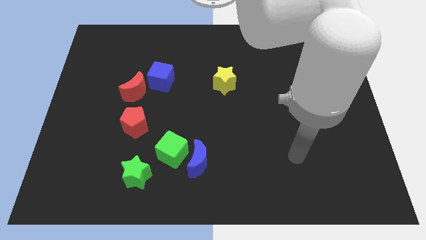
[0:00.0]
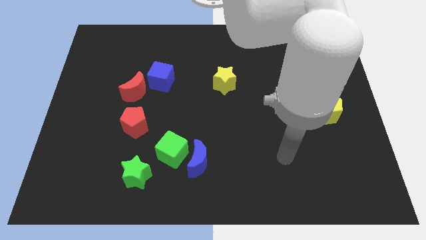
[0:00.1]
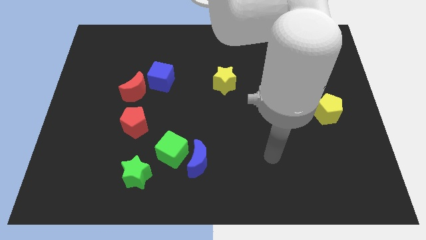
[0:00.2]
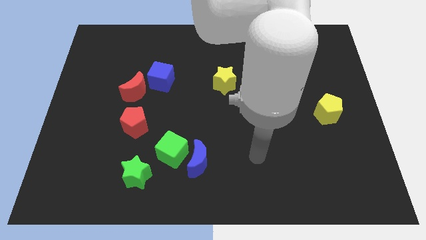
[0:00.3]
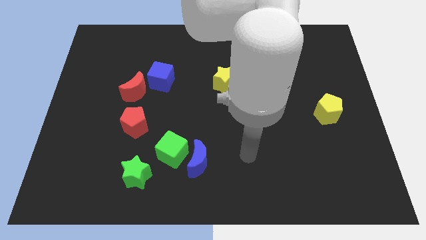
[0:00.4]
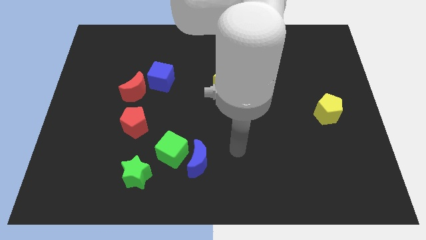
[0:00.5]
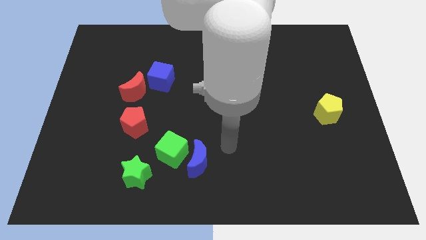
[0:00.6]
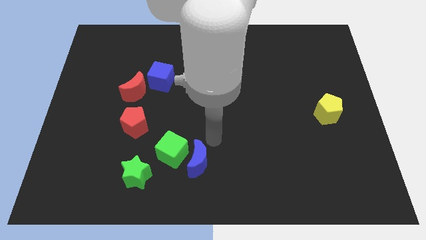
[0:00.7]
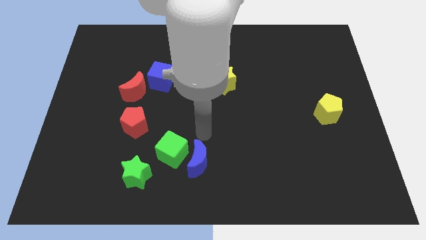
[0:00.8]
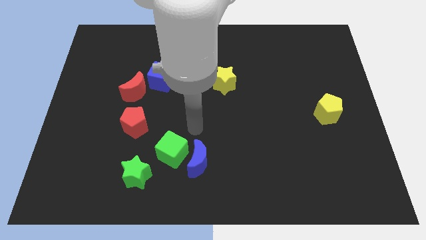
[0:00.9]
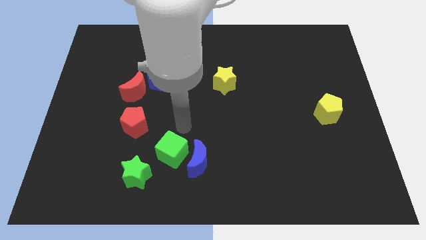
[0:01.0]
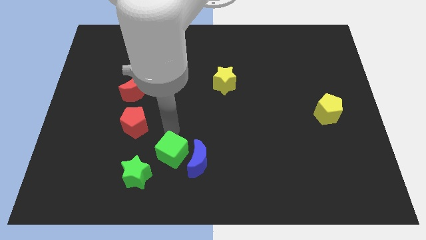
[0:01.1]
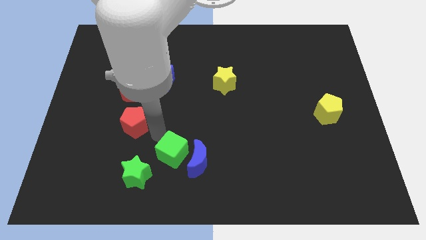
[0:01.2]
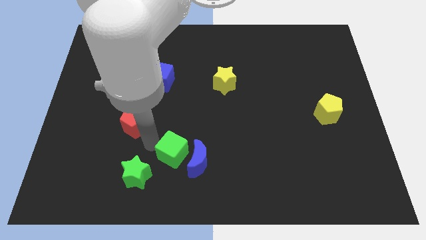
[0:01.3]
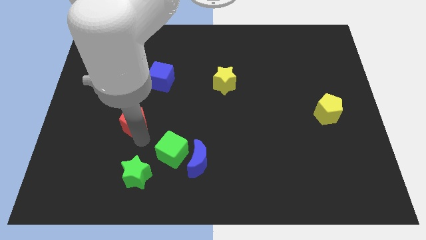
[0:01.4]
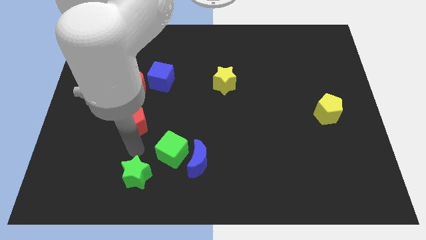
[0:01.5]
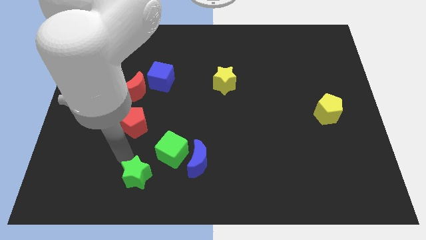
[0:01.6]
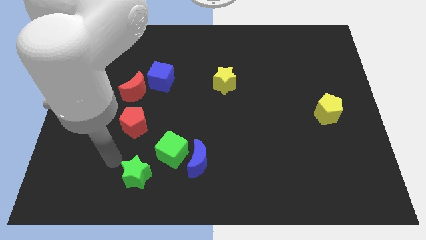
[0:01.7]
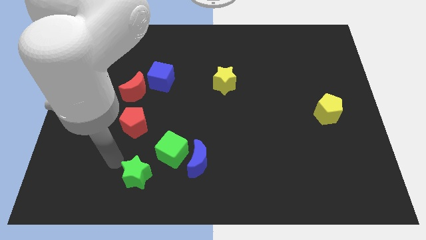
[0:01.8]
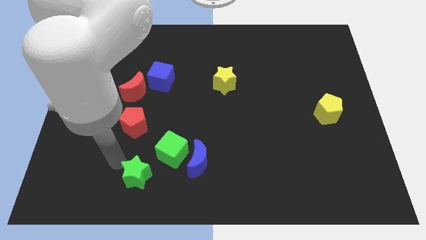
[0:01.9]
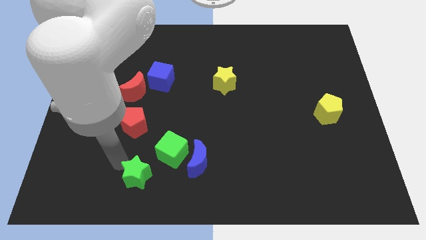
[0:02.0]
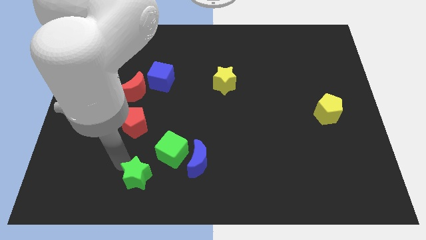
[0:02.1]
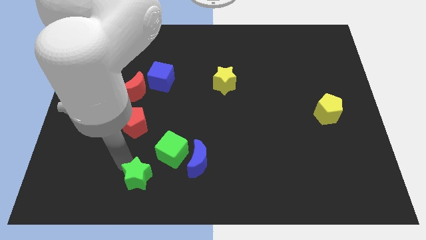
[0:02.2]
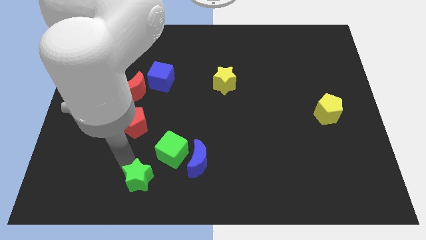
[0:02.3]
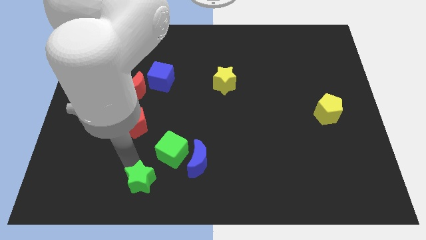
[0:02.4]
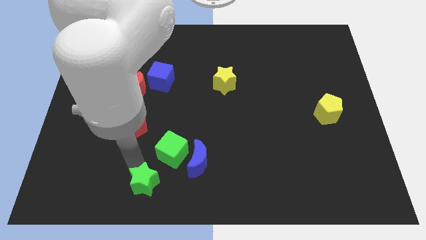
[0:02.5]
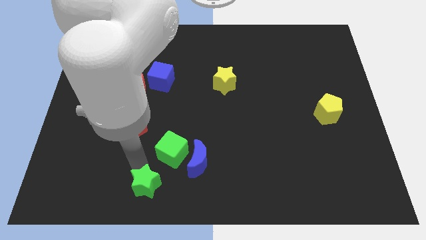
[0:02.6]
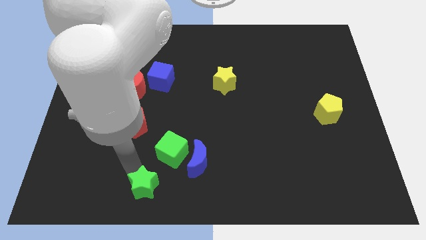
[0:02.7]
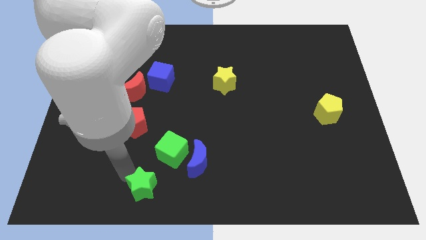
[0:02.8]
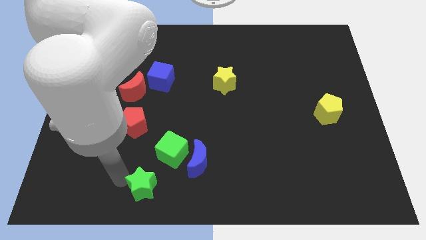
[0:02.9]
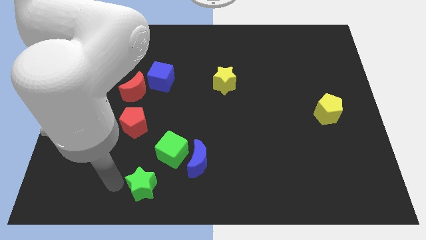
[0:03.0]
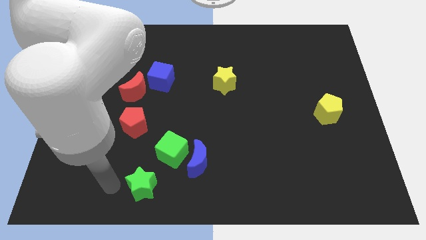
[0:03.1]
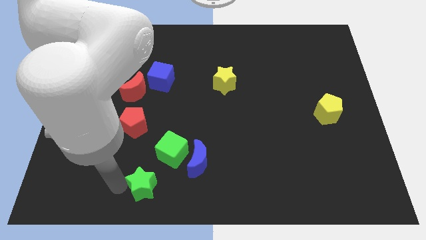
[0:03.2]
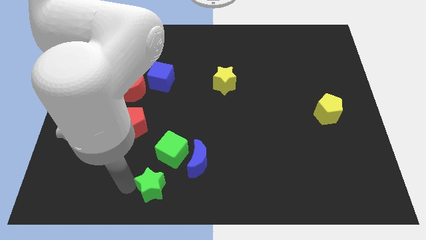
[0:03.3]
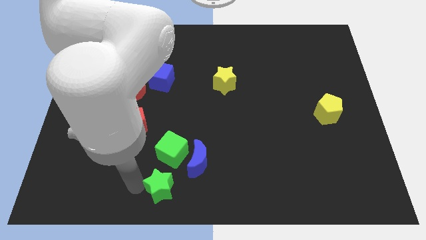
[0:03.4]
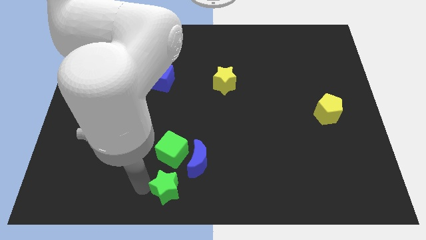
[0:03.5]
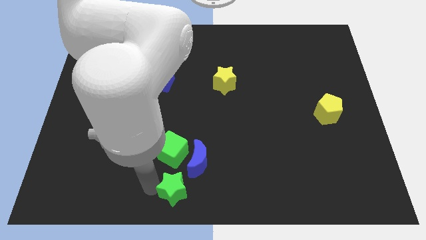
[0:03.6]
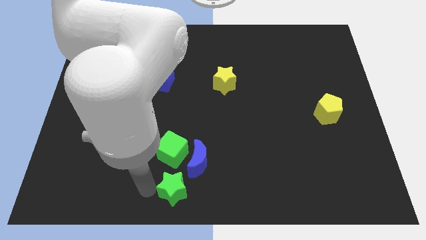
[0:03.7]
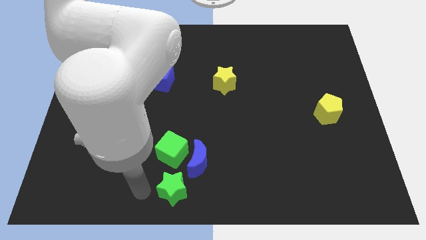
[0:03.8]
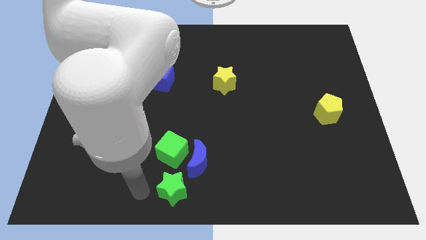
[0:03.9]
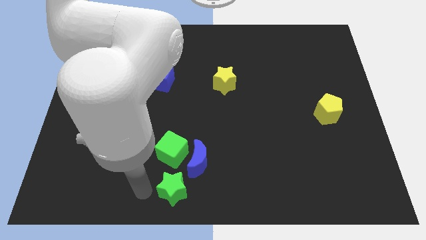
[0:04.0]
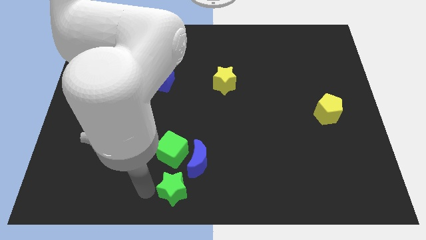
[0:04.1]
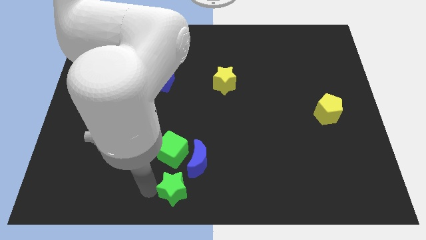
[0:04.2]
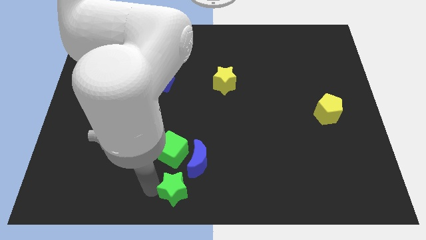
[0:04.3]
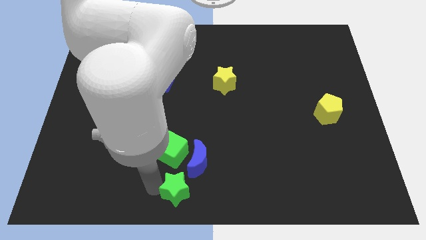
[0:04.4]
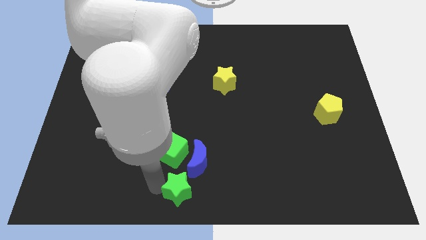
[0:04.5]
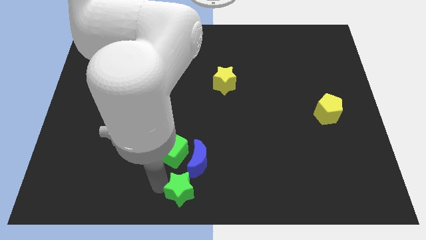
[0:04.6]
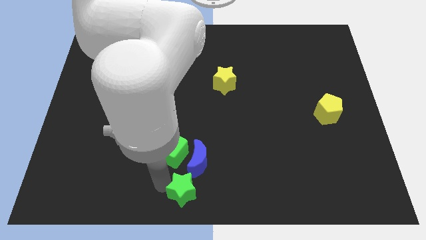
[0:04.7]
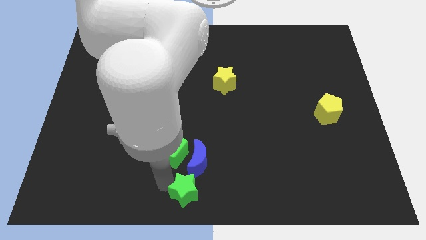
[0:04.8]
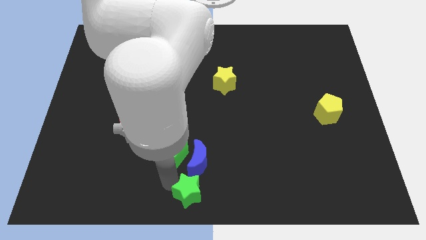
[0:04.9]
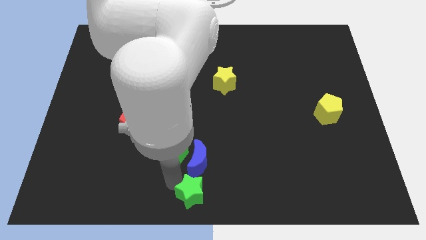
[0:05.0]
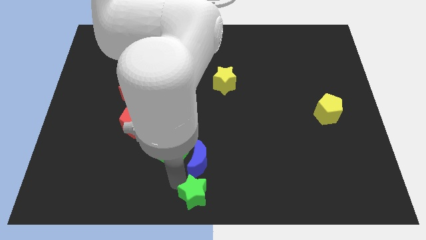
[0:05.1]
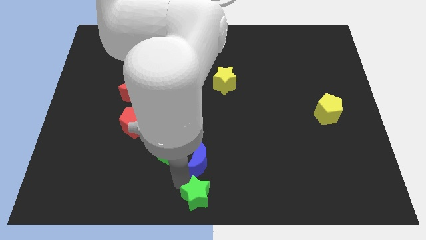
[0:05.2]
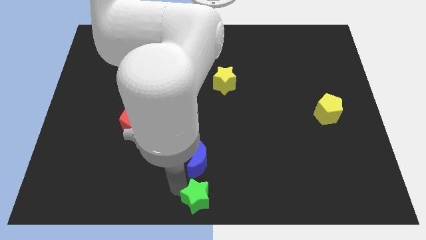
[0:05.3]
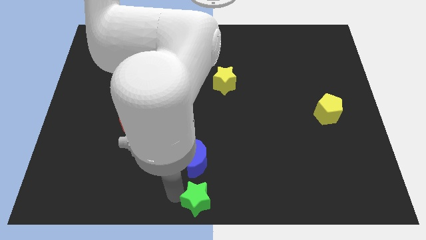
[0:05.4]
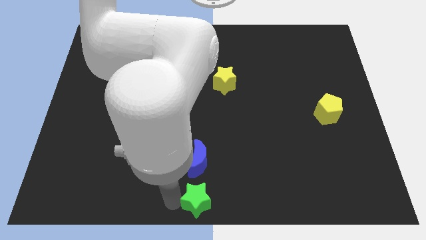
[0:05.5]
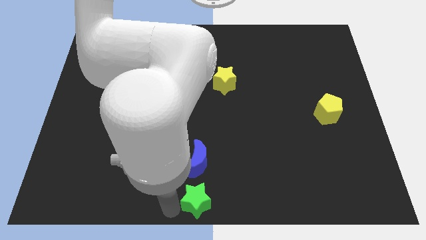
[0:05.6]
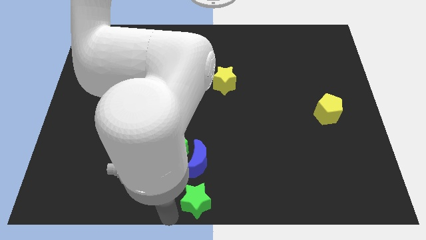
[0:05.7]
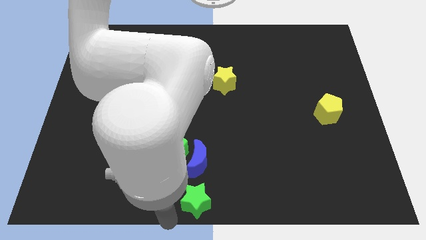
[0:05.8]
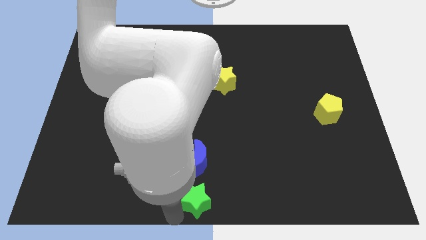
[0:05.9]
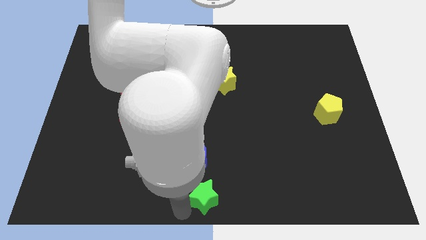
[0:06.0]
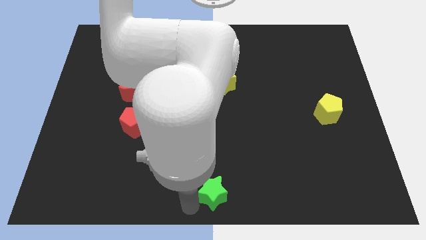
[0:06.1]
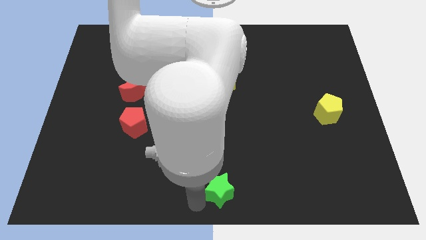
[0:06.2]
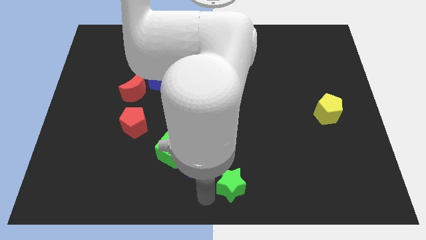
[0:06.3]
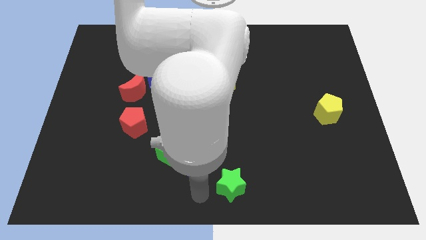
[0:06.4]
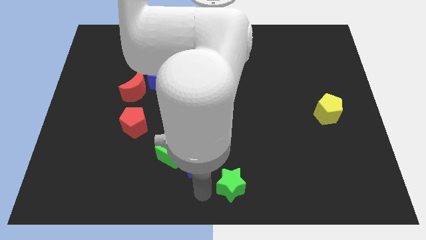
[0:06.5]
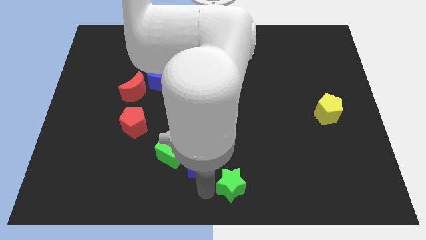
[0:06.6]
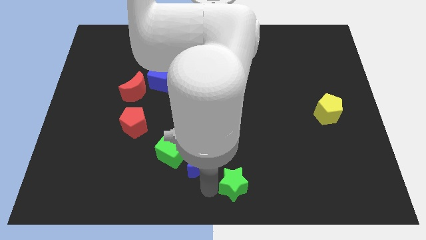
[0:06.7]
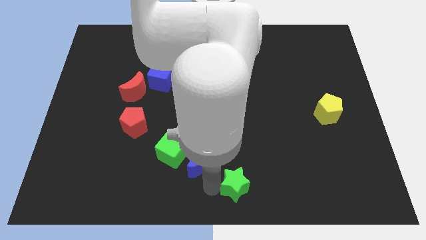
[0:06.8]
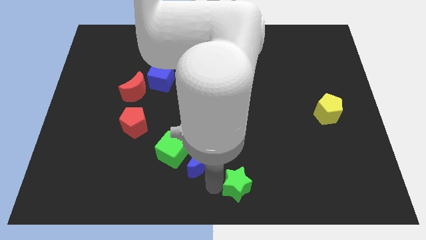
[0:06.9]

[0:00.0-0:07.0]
slide the green star to the right

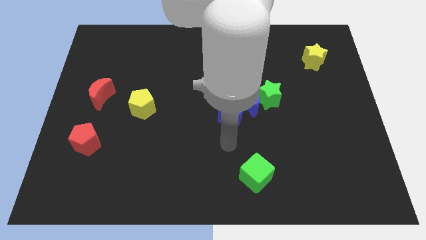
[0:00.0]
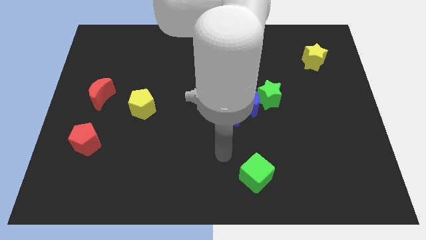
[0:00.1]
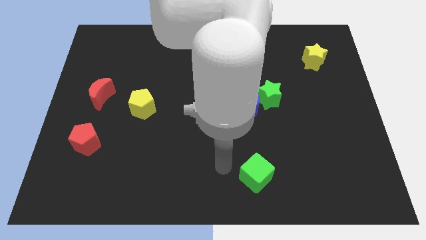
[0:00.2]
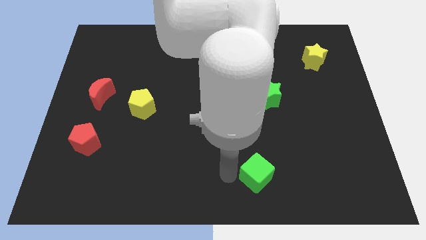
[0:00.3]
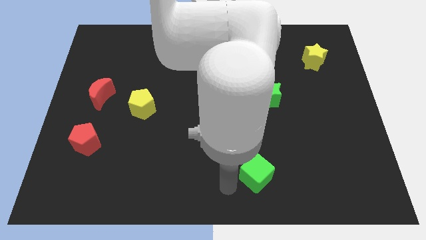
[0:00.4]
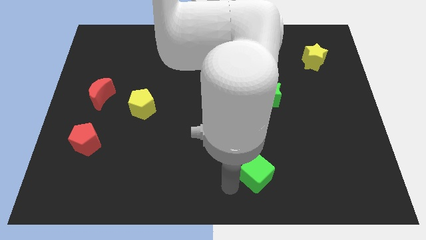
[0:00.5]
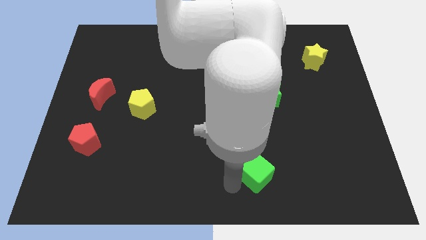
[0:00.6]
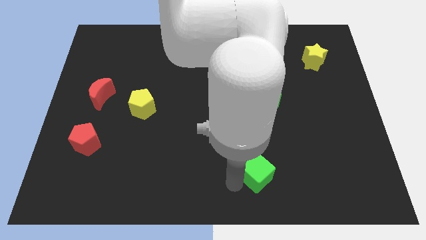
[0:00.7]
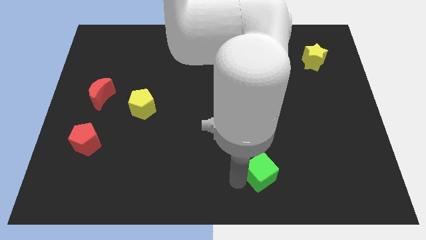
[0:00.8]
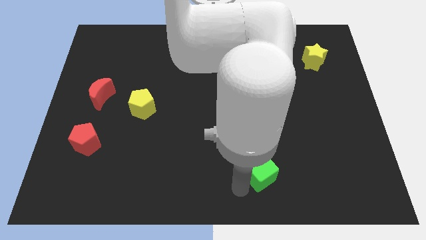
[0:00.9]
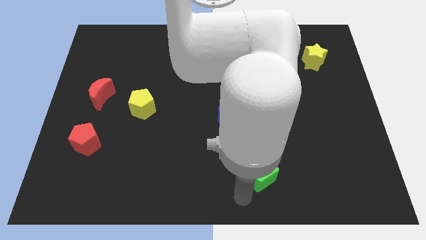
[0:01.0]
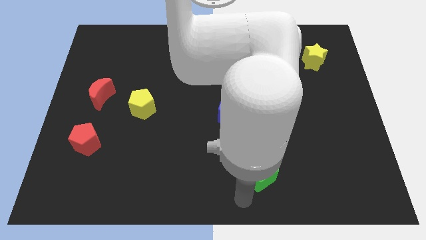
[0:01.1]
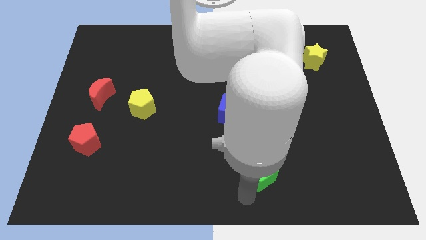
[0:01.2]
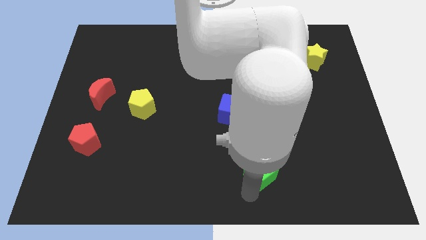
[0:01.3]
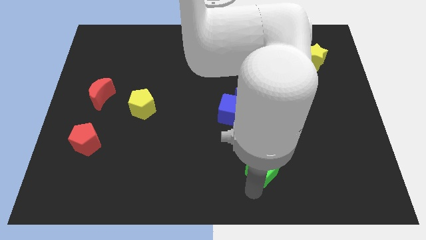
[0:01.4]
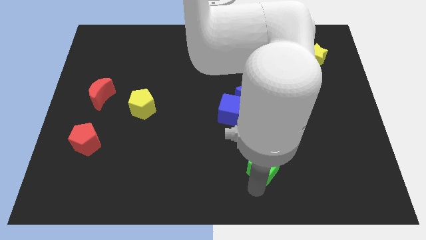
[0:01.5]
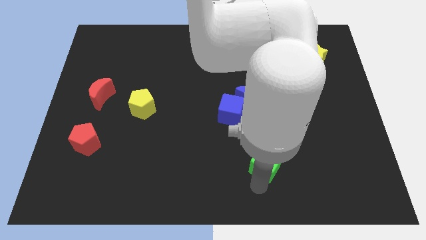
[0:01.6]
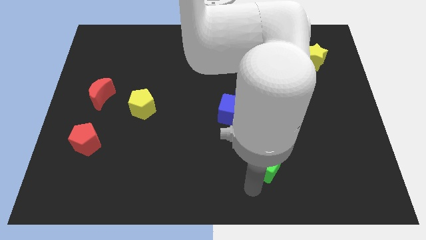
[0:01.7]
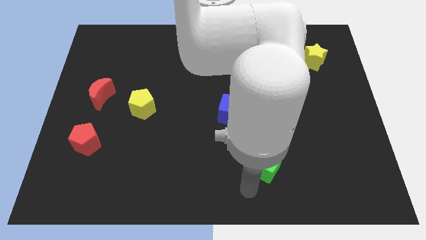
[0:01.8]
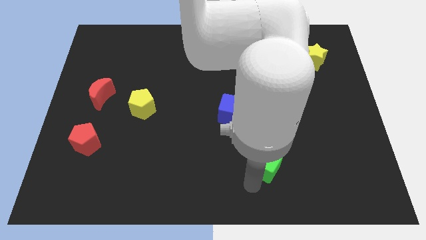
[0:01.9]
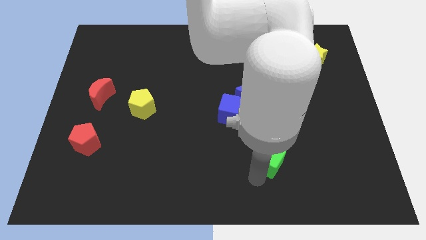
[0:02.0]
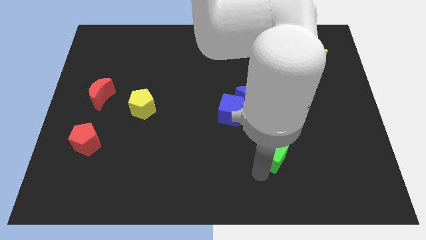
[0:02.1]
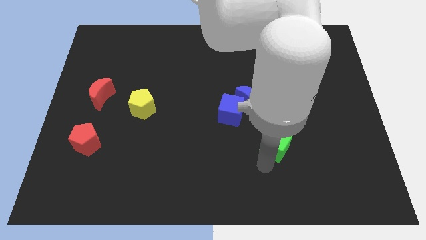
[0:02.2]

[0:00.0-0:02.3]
slightly move the green cube up and to the right
